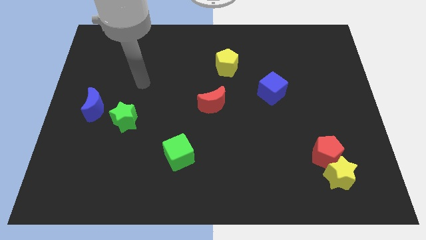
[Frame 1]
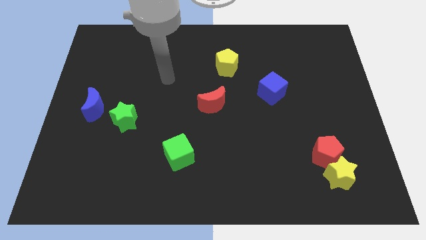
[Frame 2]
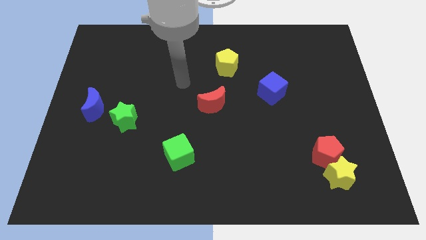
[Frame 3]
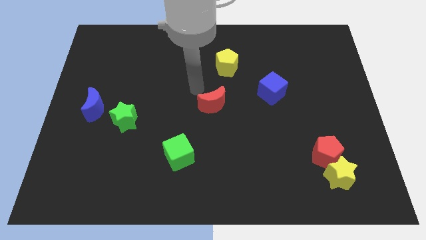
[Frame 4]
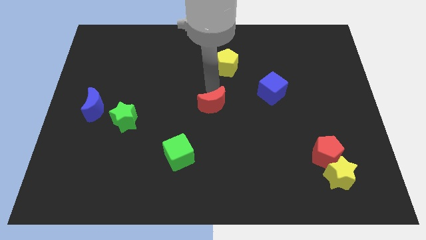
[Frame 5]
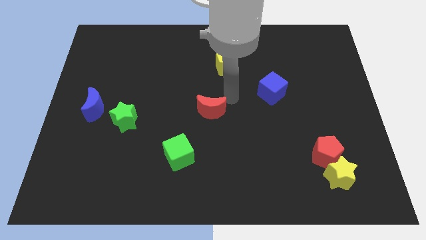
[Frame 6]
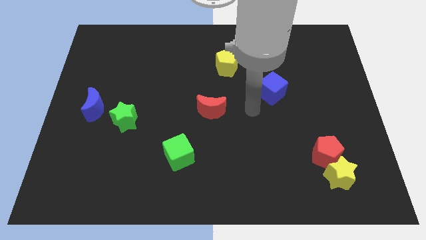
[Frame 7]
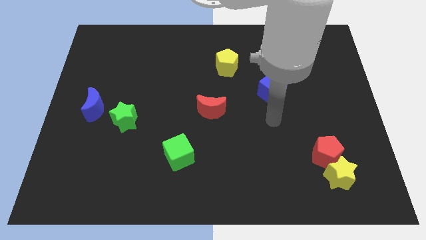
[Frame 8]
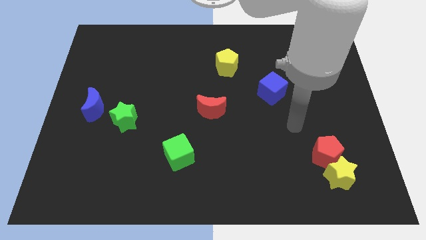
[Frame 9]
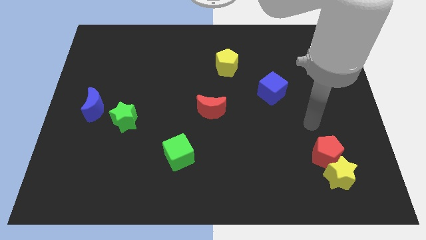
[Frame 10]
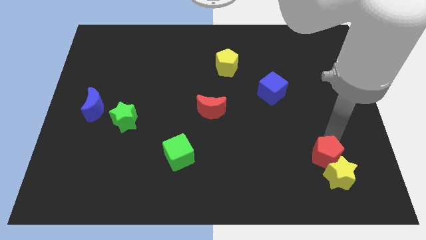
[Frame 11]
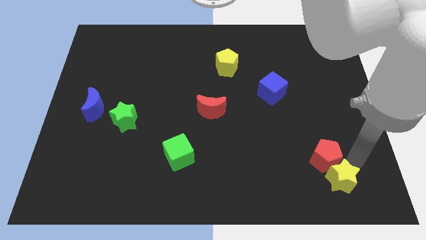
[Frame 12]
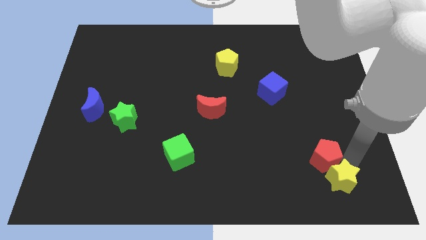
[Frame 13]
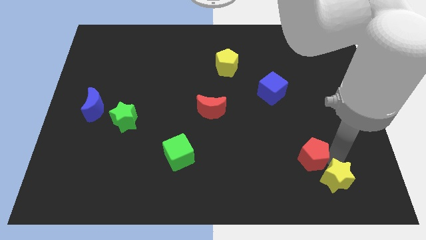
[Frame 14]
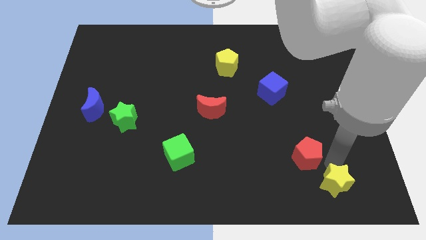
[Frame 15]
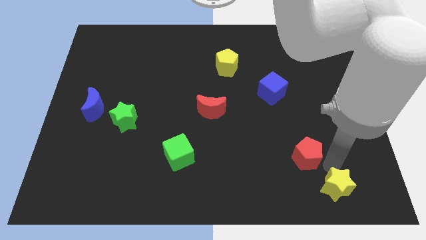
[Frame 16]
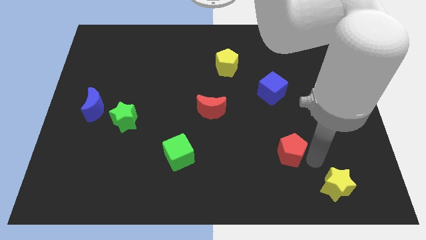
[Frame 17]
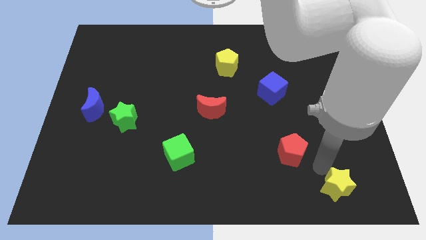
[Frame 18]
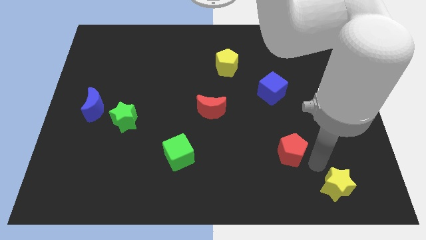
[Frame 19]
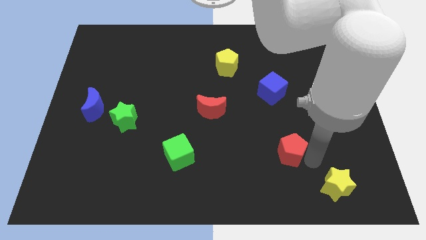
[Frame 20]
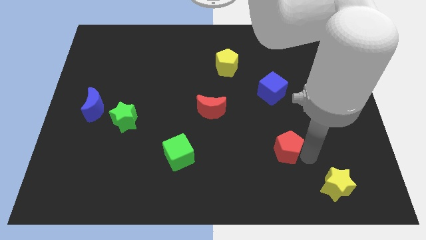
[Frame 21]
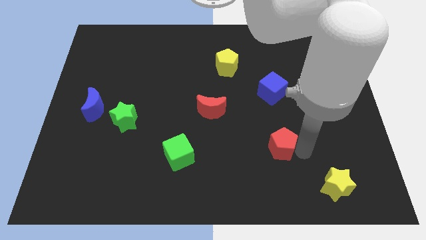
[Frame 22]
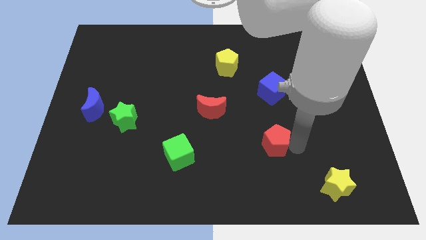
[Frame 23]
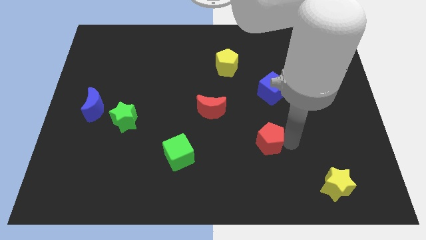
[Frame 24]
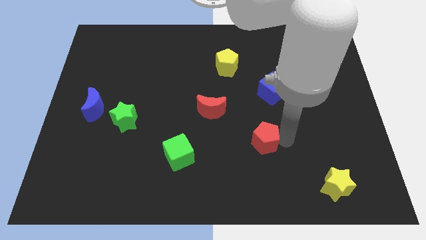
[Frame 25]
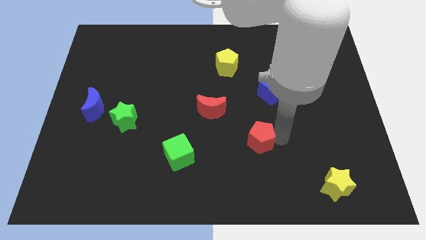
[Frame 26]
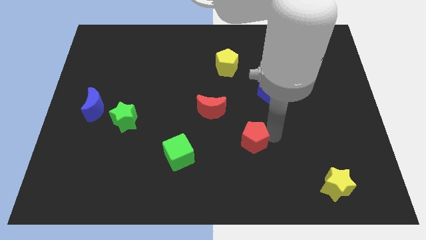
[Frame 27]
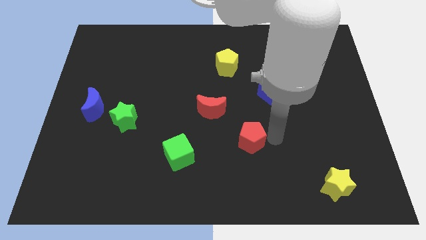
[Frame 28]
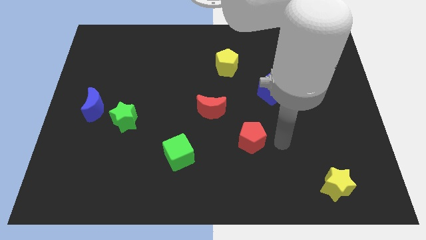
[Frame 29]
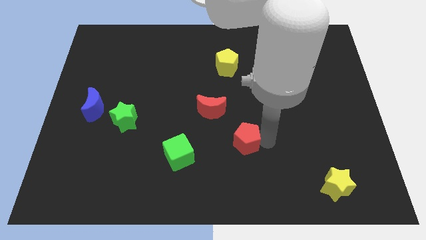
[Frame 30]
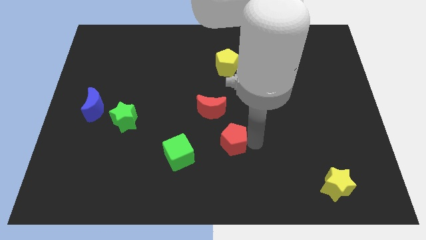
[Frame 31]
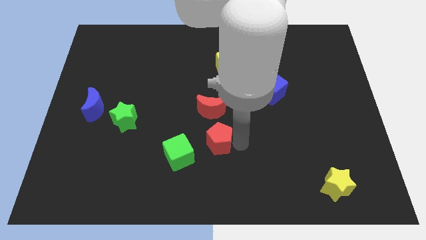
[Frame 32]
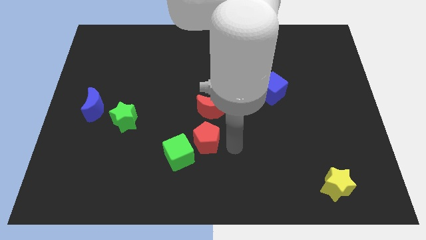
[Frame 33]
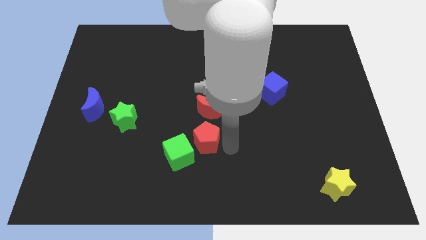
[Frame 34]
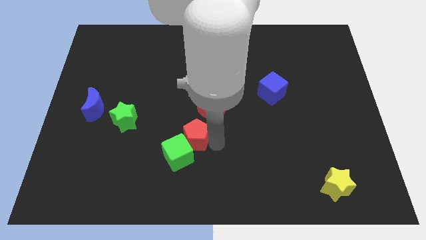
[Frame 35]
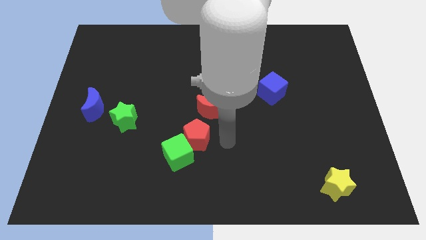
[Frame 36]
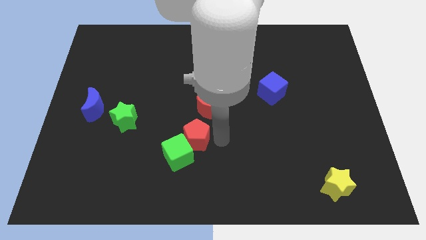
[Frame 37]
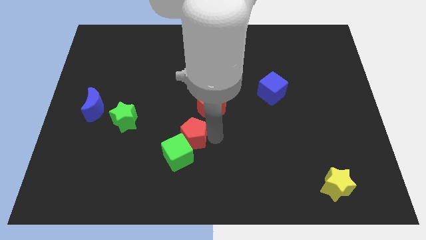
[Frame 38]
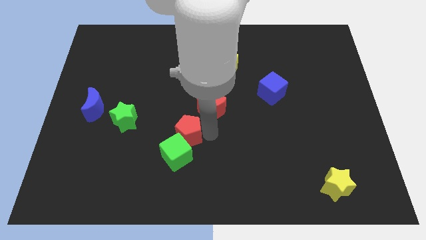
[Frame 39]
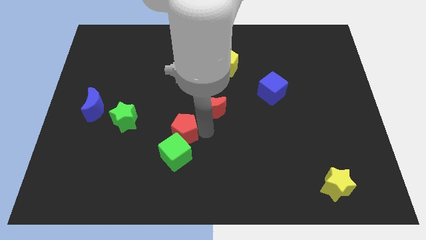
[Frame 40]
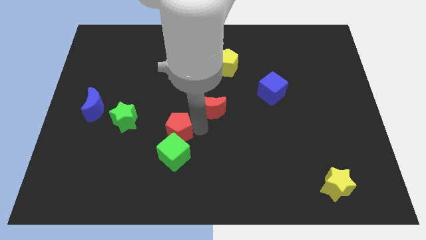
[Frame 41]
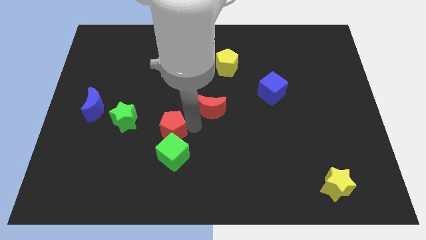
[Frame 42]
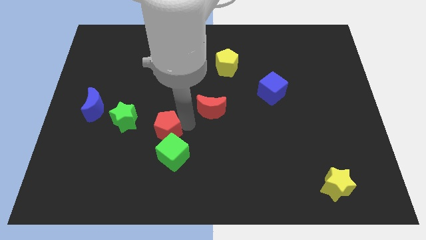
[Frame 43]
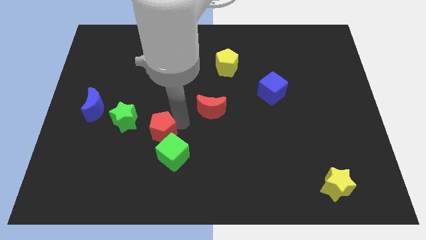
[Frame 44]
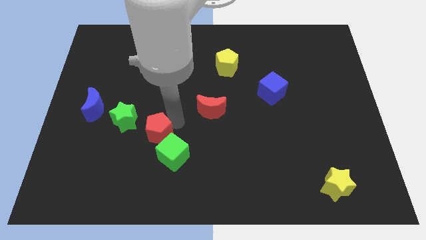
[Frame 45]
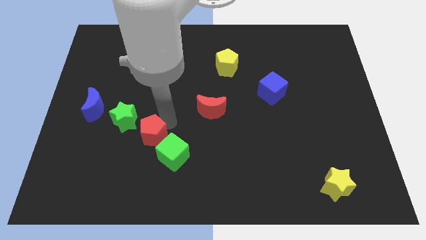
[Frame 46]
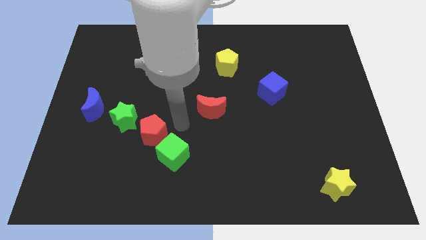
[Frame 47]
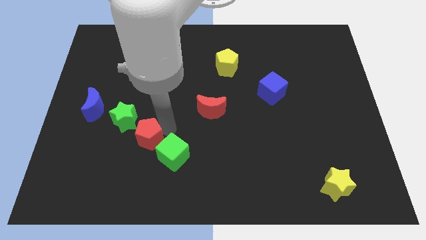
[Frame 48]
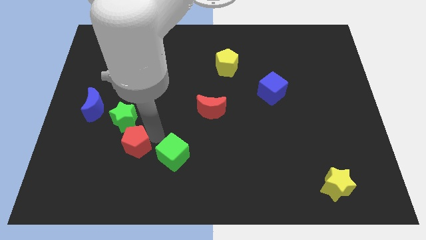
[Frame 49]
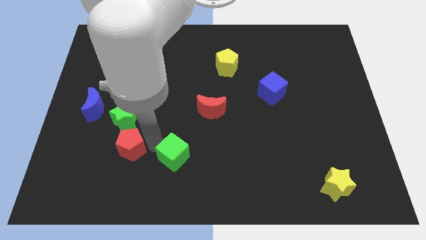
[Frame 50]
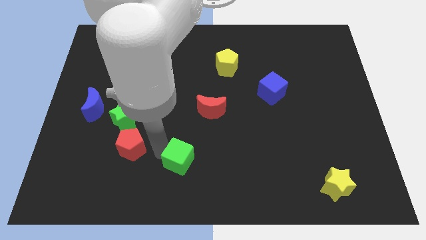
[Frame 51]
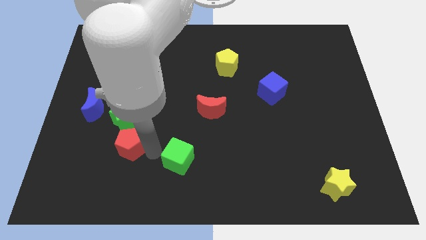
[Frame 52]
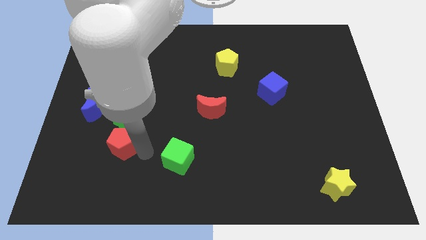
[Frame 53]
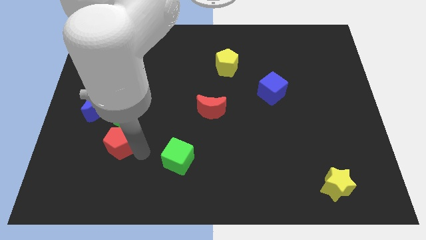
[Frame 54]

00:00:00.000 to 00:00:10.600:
move the red pentagon to the bottom left side of the green star

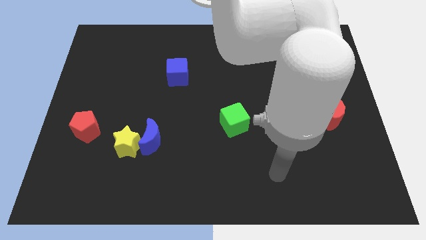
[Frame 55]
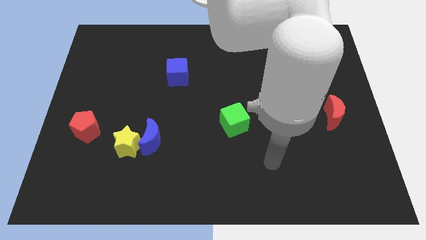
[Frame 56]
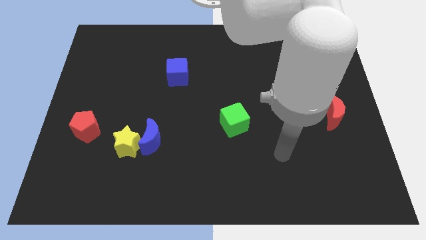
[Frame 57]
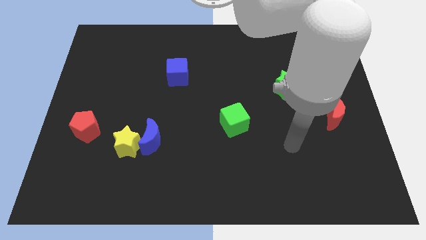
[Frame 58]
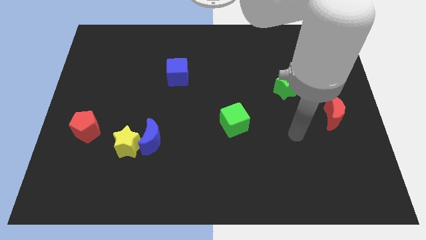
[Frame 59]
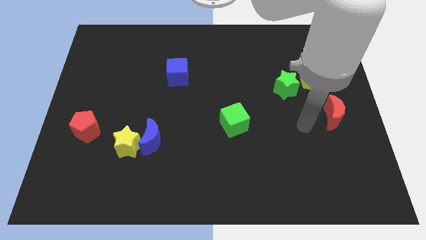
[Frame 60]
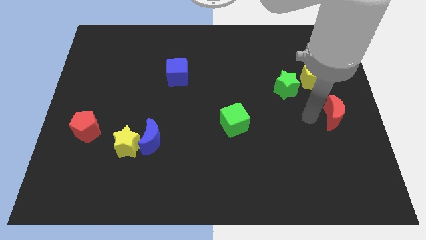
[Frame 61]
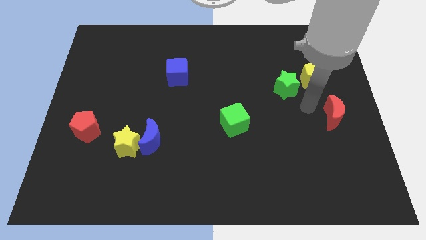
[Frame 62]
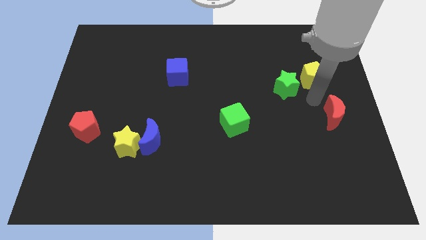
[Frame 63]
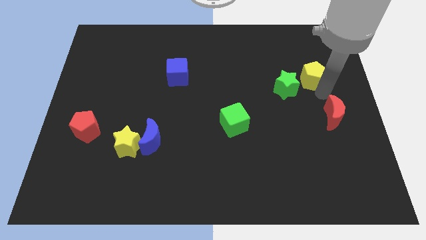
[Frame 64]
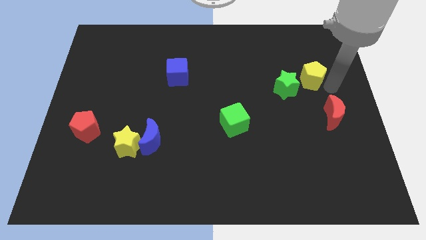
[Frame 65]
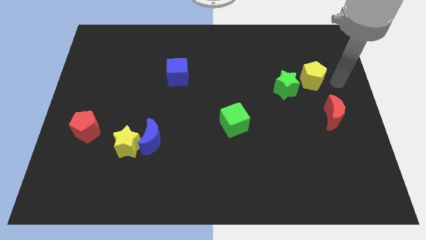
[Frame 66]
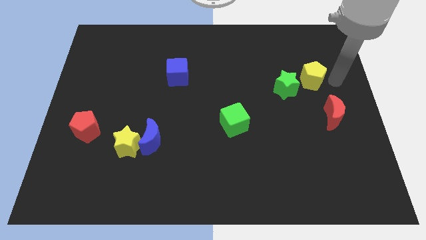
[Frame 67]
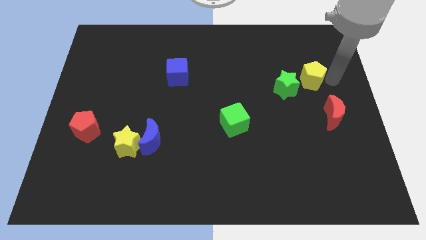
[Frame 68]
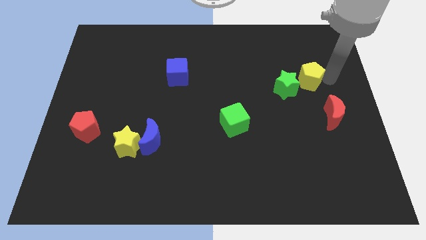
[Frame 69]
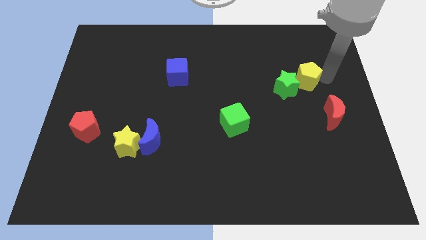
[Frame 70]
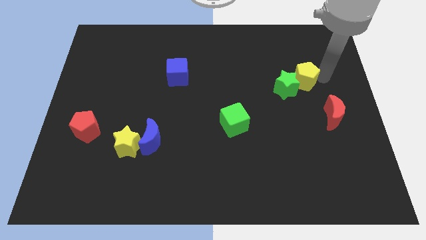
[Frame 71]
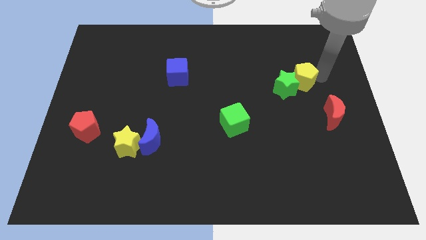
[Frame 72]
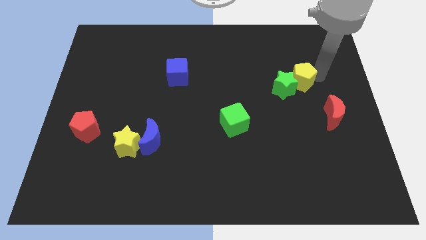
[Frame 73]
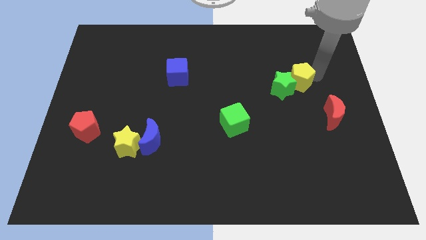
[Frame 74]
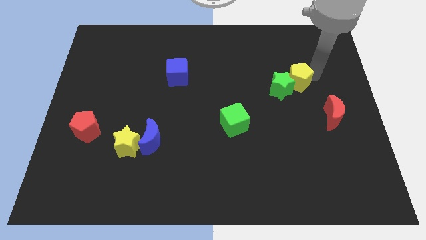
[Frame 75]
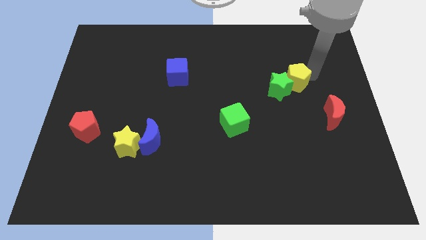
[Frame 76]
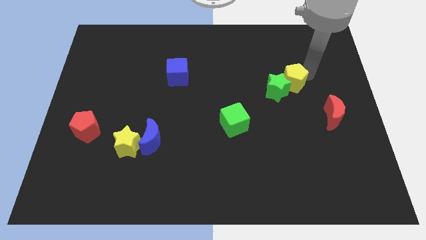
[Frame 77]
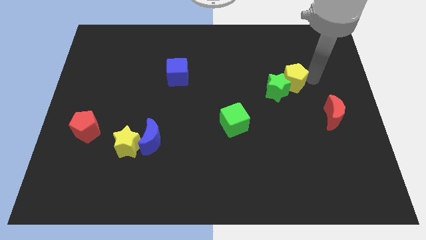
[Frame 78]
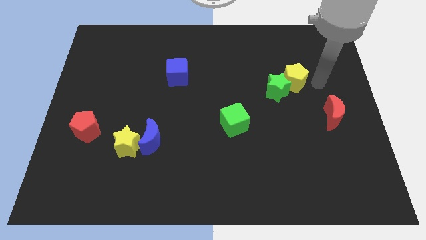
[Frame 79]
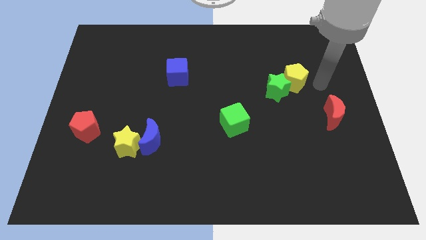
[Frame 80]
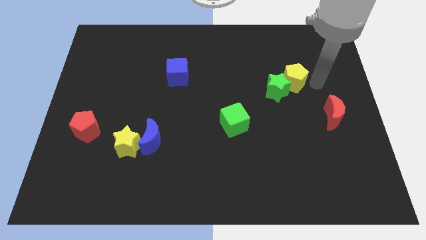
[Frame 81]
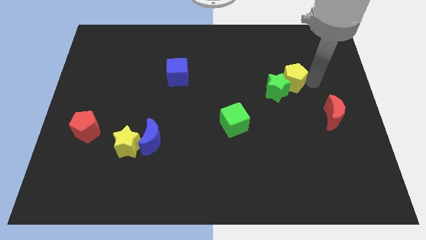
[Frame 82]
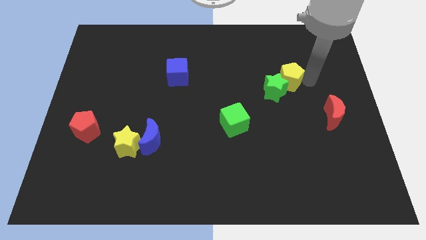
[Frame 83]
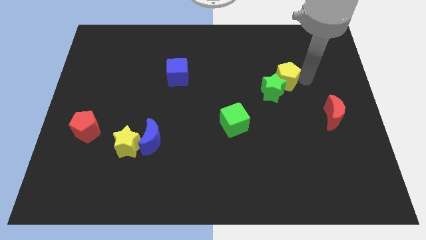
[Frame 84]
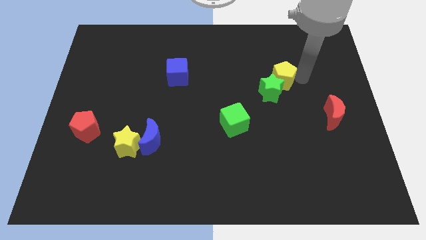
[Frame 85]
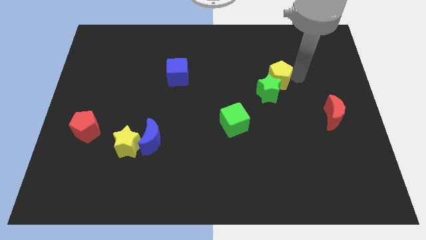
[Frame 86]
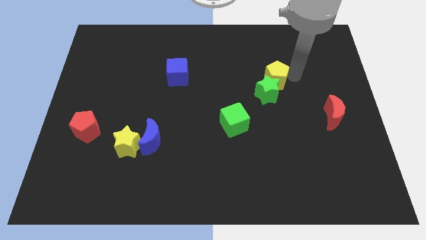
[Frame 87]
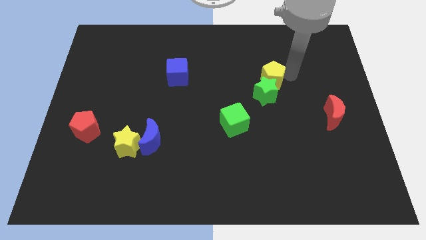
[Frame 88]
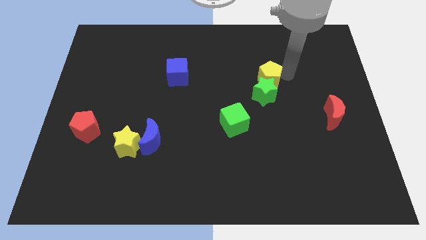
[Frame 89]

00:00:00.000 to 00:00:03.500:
move the yellow pentagon diagonally up and to the left of the green star
